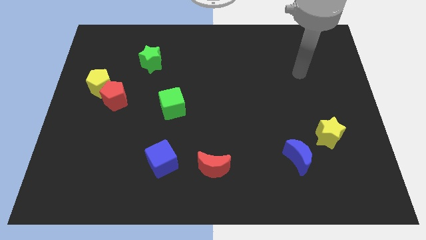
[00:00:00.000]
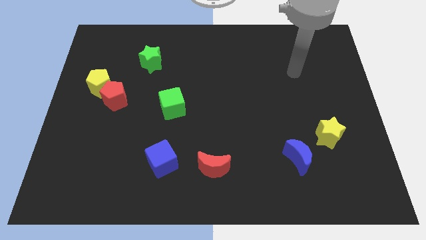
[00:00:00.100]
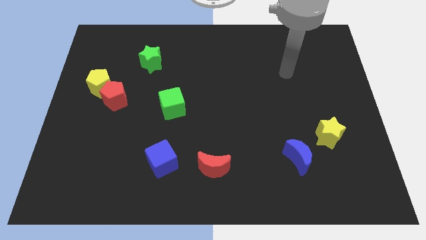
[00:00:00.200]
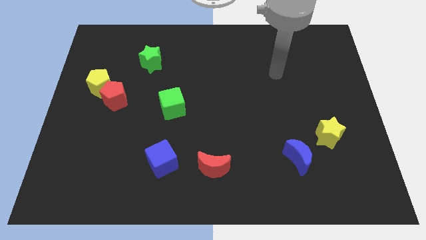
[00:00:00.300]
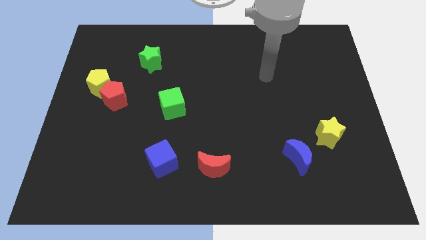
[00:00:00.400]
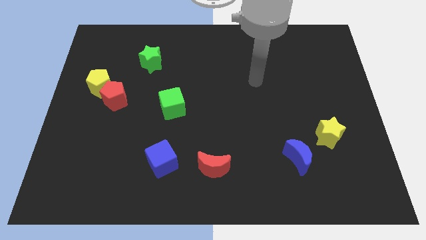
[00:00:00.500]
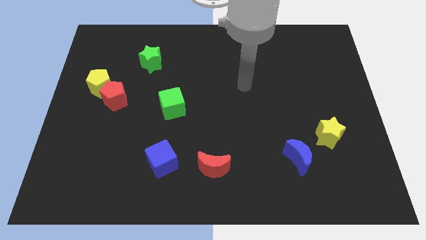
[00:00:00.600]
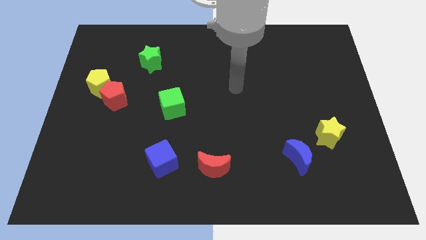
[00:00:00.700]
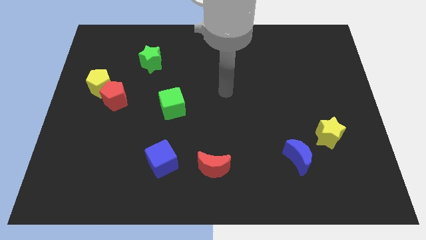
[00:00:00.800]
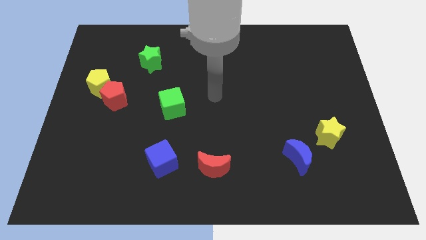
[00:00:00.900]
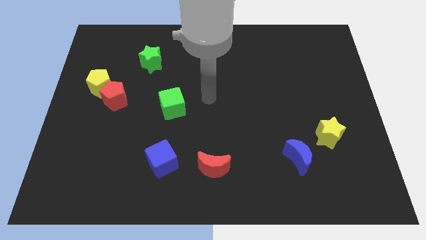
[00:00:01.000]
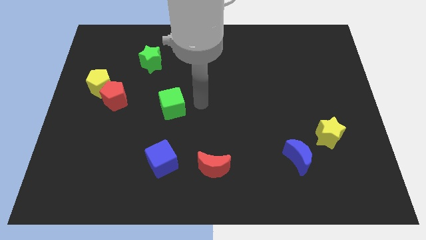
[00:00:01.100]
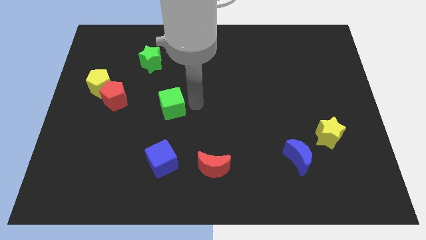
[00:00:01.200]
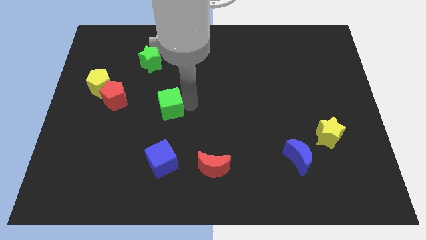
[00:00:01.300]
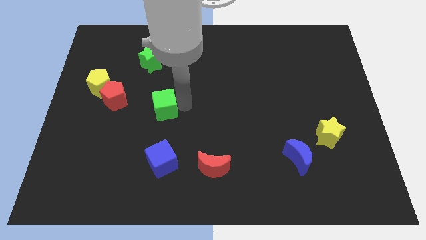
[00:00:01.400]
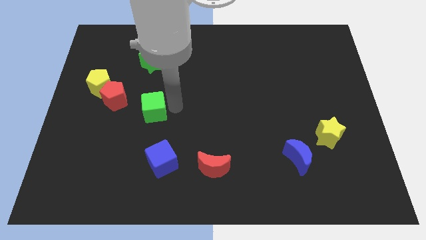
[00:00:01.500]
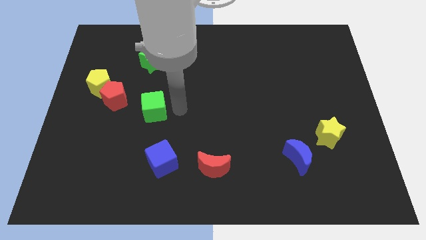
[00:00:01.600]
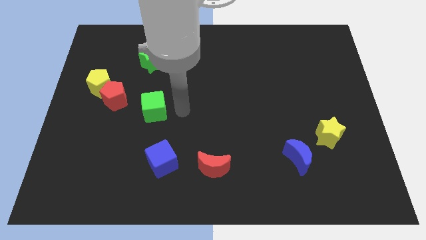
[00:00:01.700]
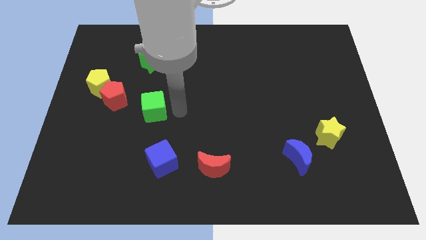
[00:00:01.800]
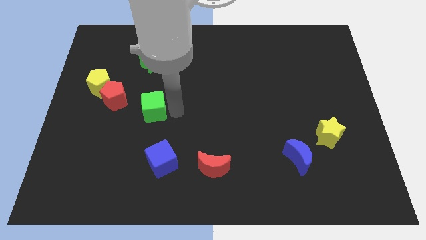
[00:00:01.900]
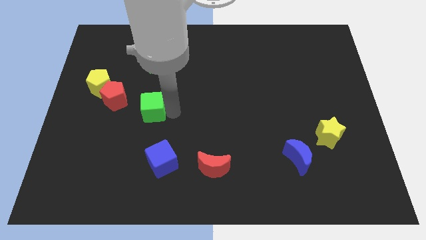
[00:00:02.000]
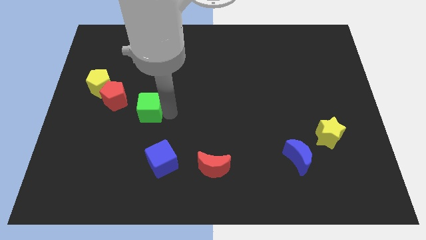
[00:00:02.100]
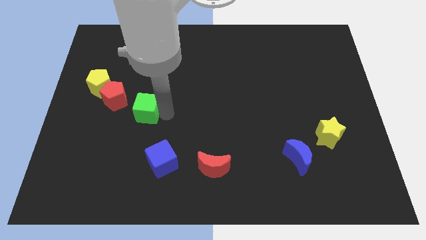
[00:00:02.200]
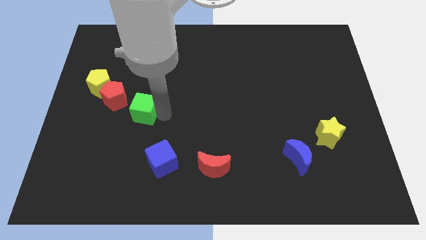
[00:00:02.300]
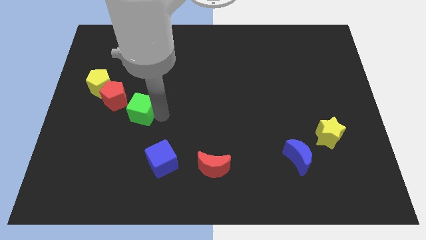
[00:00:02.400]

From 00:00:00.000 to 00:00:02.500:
move the green cube slightly to the left

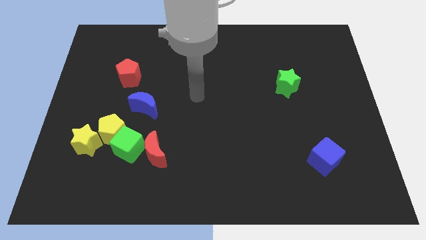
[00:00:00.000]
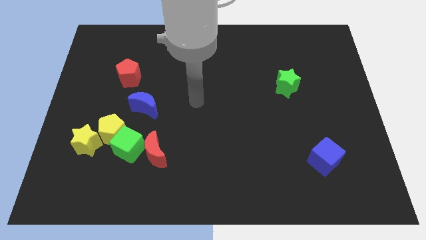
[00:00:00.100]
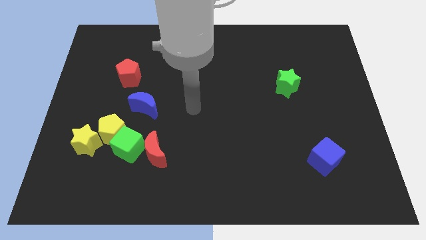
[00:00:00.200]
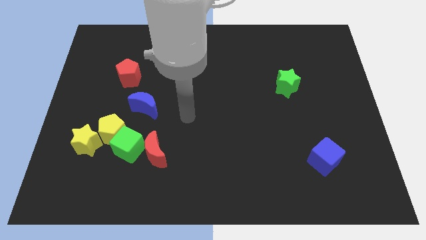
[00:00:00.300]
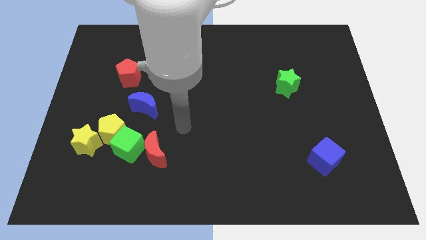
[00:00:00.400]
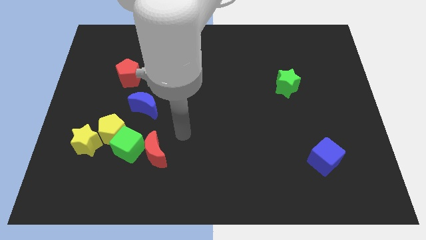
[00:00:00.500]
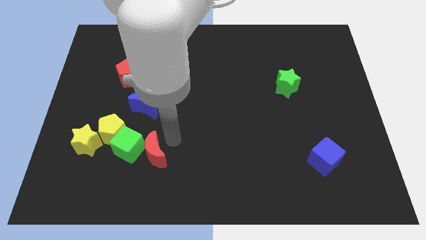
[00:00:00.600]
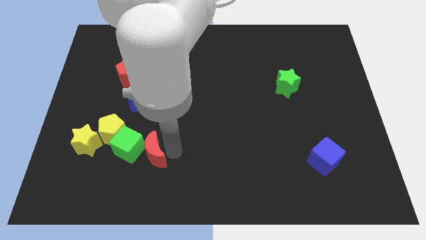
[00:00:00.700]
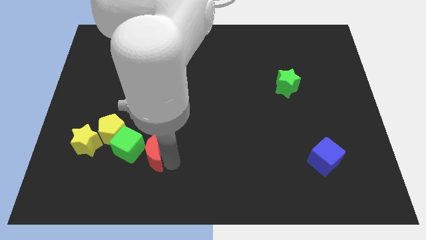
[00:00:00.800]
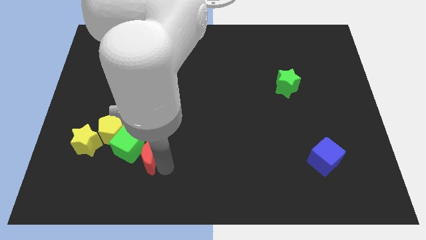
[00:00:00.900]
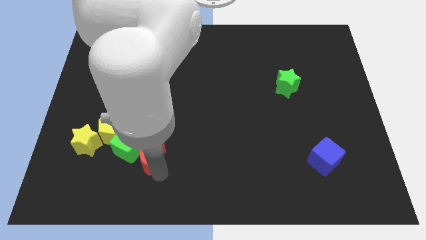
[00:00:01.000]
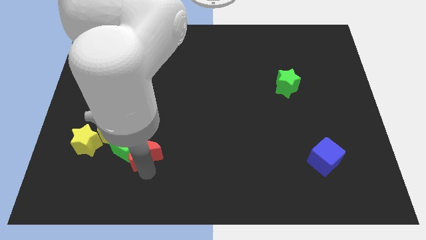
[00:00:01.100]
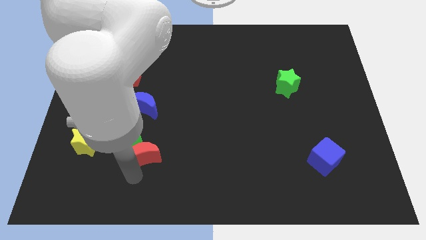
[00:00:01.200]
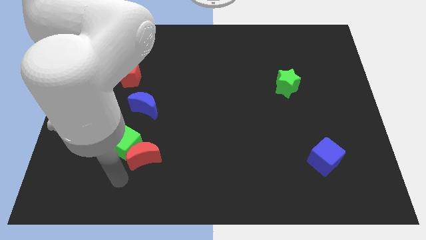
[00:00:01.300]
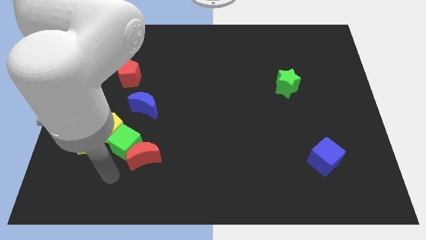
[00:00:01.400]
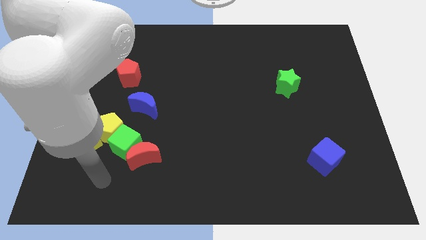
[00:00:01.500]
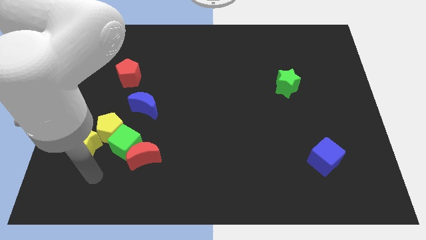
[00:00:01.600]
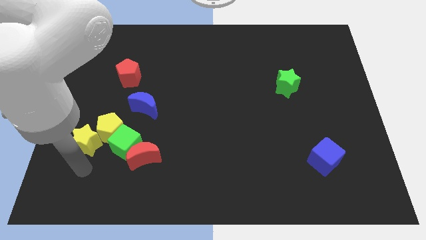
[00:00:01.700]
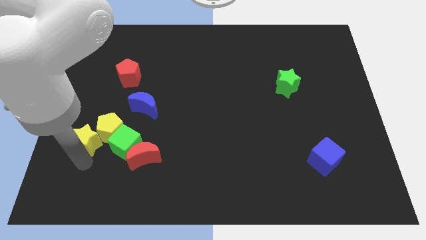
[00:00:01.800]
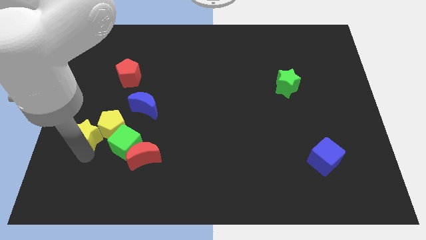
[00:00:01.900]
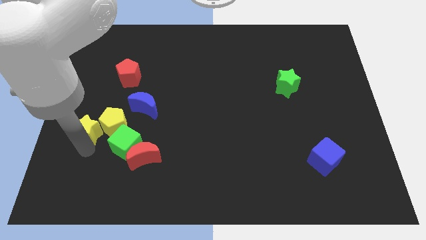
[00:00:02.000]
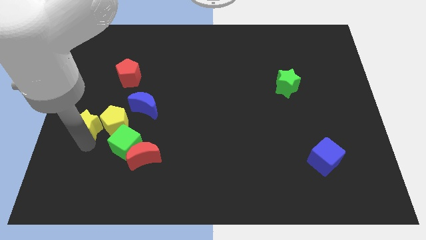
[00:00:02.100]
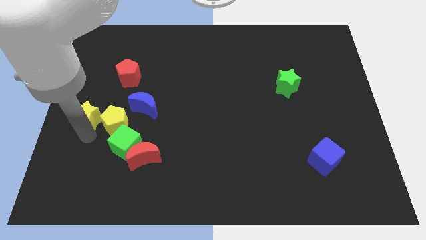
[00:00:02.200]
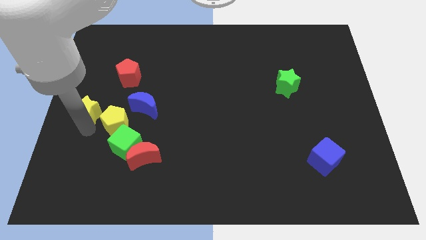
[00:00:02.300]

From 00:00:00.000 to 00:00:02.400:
move the yellow star upwards a little bit

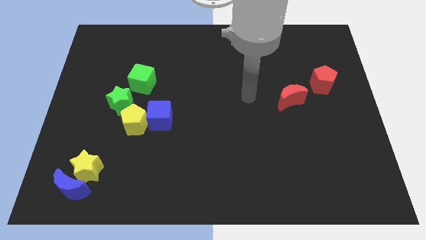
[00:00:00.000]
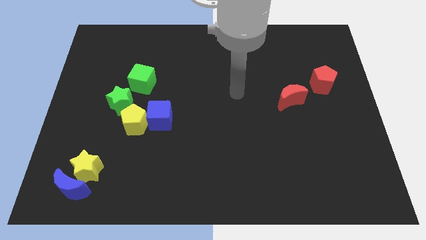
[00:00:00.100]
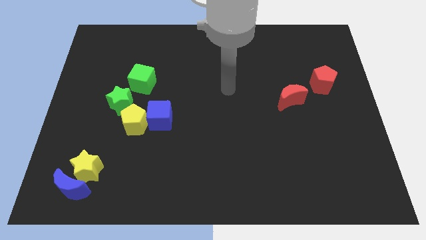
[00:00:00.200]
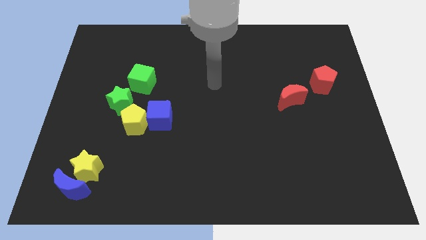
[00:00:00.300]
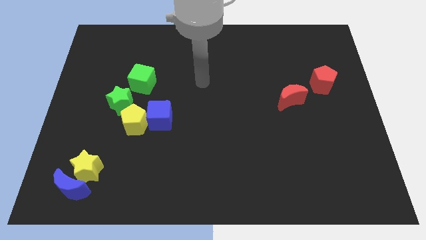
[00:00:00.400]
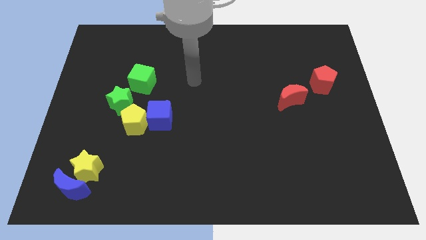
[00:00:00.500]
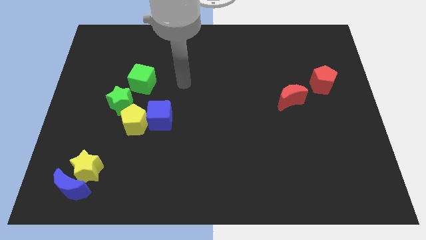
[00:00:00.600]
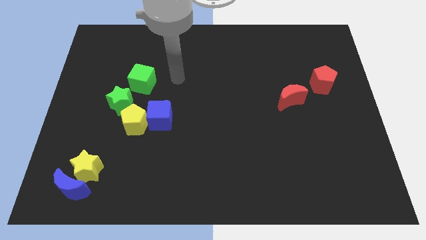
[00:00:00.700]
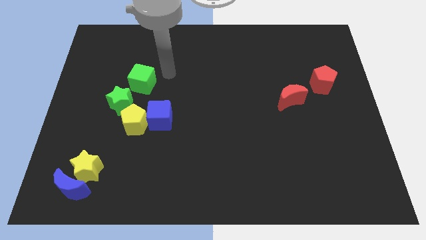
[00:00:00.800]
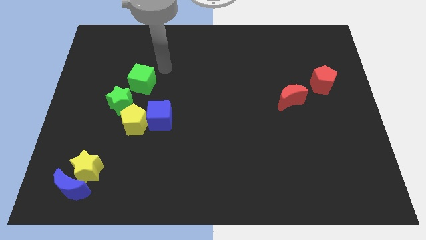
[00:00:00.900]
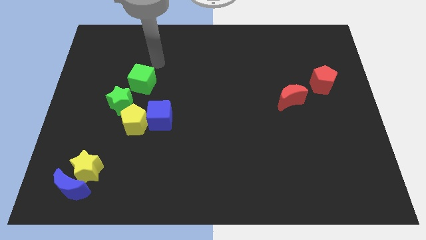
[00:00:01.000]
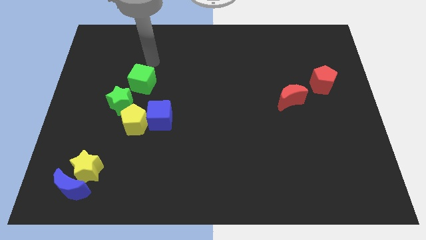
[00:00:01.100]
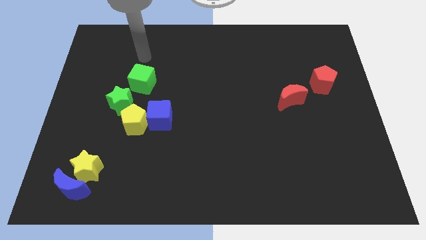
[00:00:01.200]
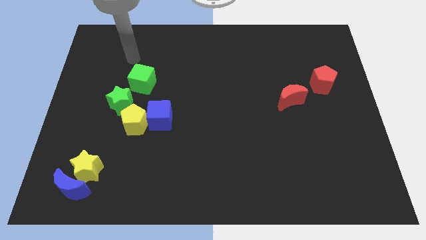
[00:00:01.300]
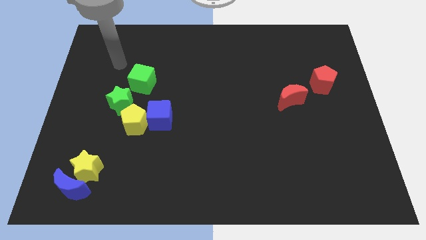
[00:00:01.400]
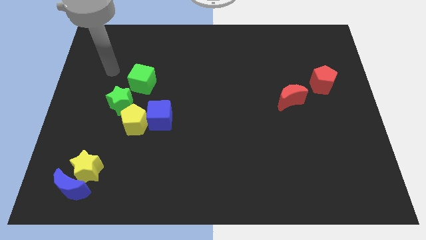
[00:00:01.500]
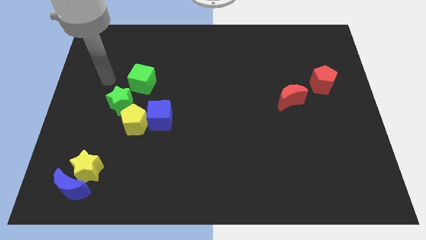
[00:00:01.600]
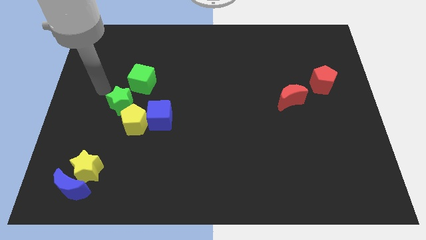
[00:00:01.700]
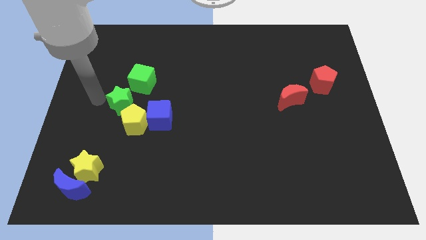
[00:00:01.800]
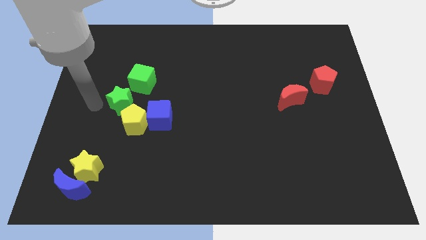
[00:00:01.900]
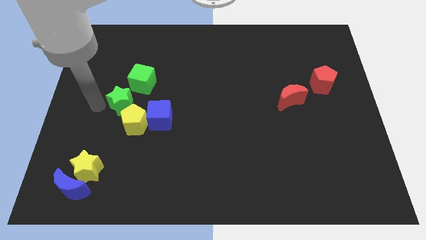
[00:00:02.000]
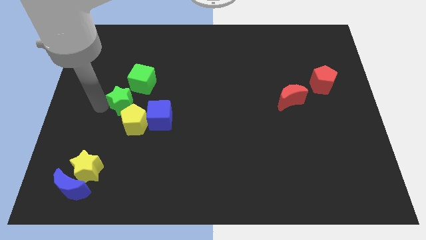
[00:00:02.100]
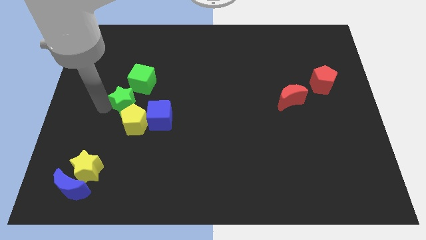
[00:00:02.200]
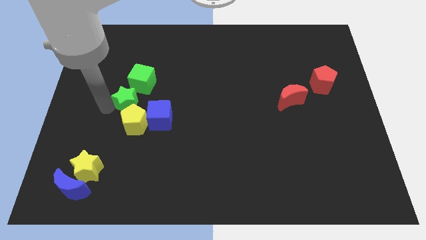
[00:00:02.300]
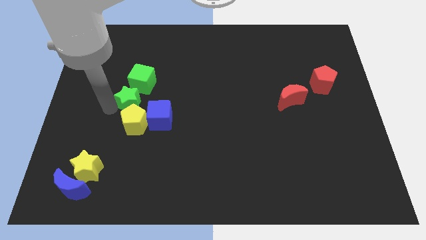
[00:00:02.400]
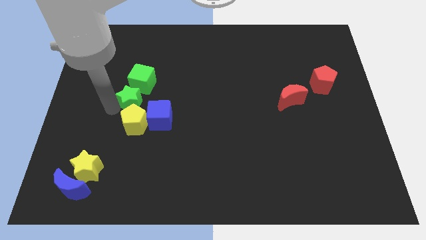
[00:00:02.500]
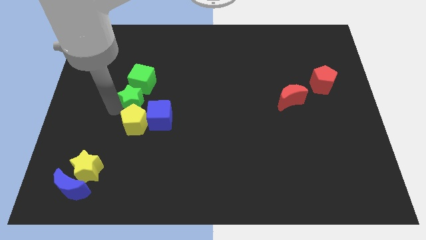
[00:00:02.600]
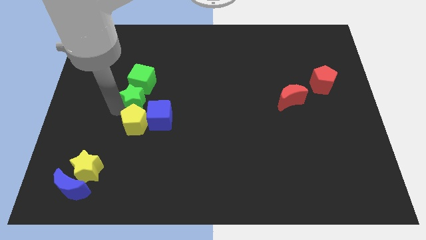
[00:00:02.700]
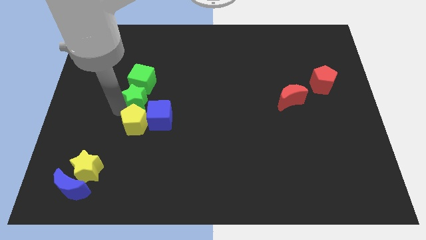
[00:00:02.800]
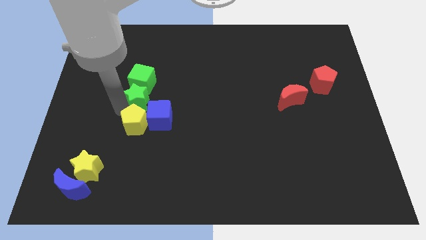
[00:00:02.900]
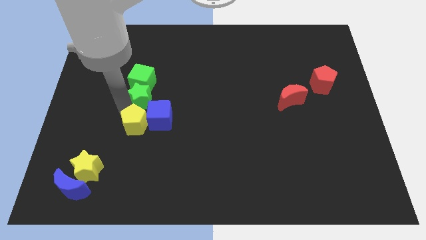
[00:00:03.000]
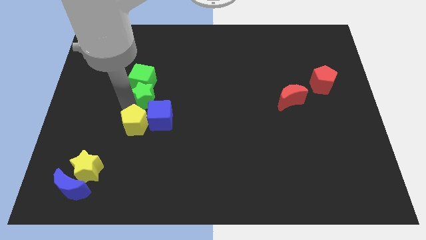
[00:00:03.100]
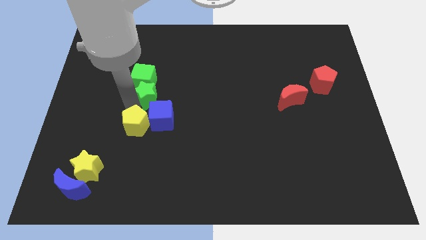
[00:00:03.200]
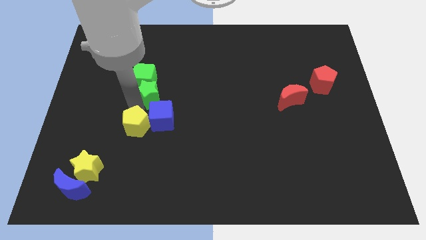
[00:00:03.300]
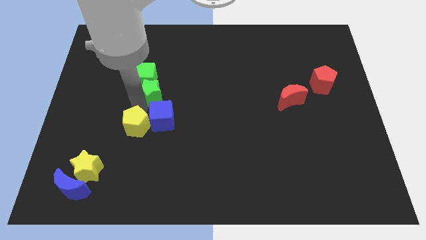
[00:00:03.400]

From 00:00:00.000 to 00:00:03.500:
slide the green star somewhat to the right
